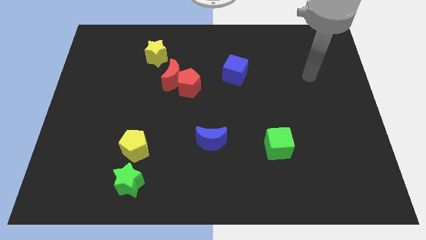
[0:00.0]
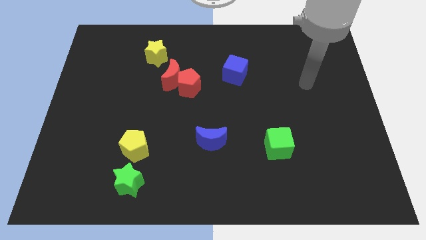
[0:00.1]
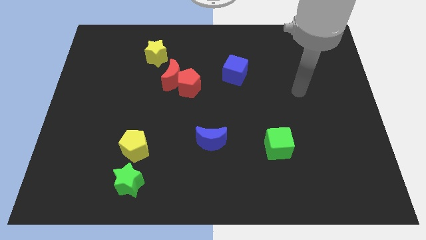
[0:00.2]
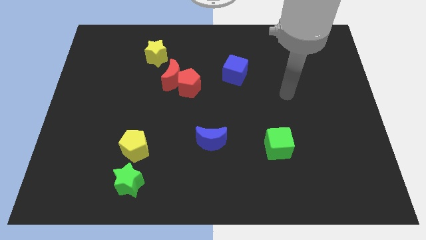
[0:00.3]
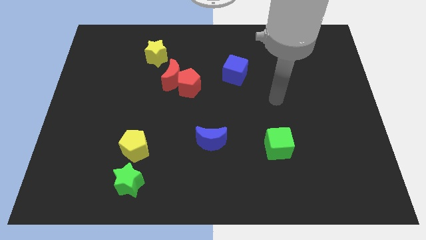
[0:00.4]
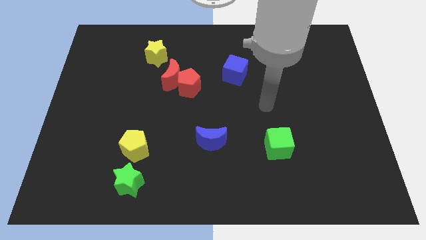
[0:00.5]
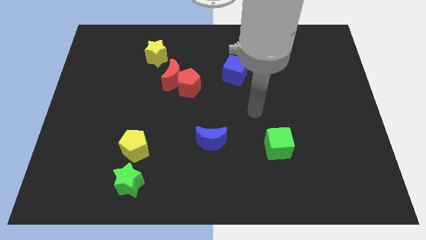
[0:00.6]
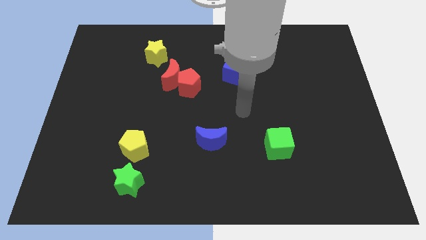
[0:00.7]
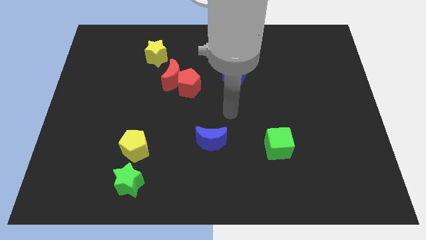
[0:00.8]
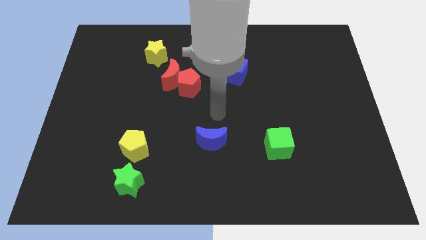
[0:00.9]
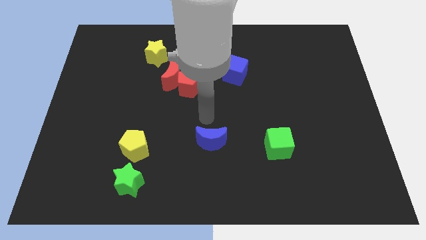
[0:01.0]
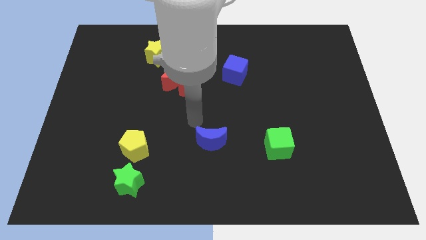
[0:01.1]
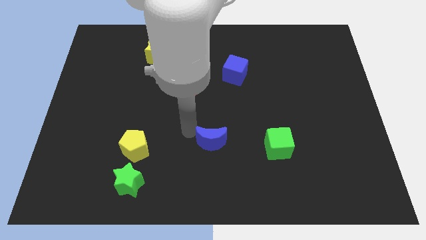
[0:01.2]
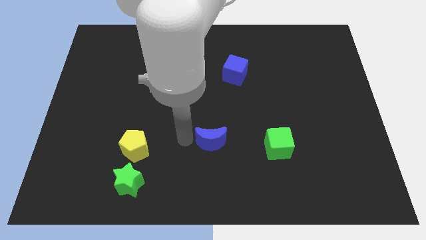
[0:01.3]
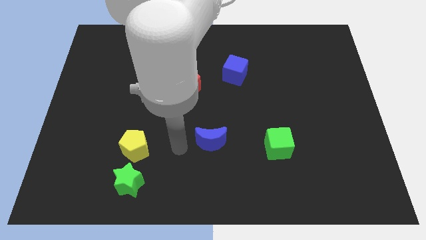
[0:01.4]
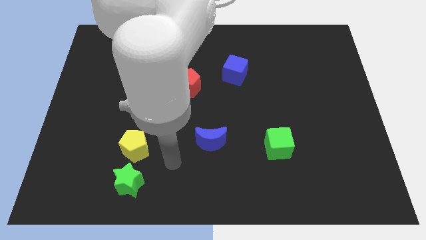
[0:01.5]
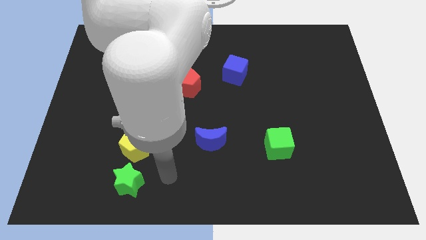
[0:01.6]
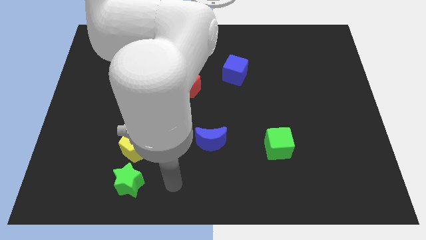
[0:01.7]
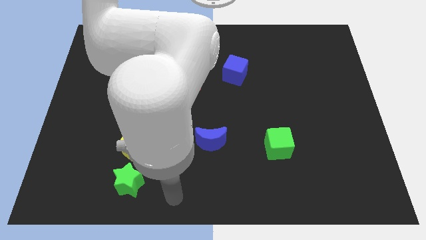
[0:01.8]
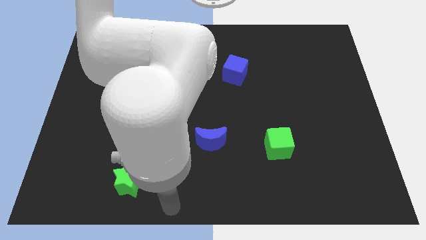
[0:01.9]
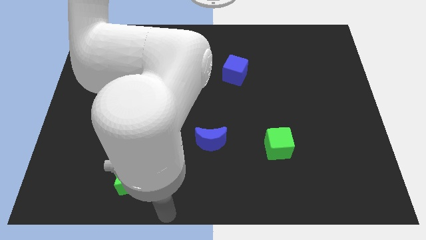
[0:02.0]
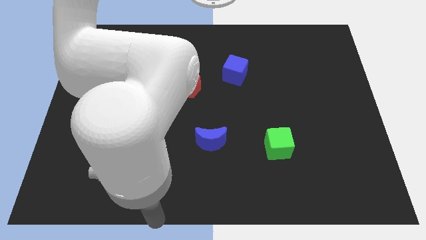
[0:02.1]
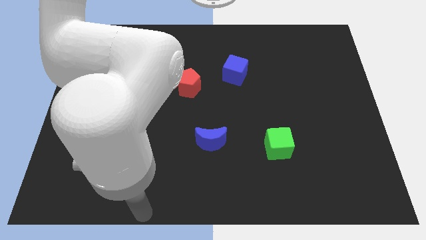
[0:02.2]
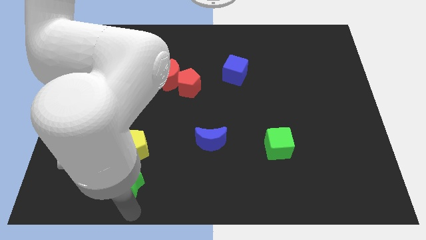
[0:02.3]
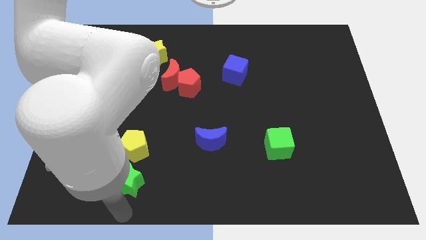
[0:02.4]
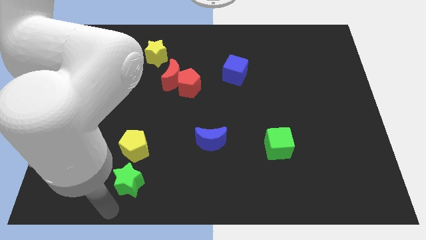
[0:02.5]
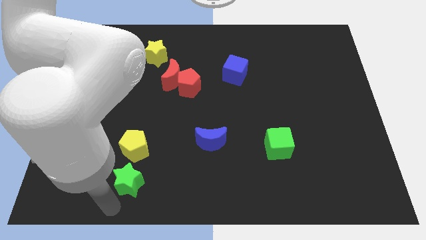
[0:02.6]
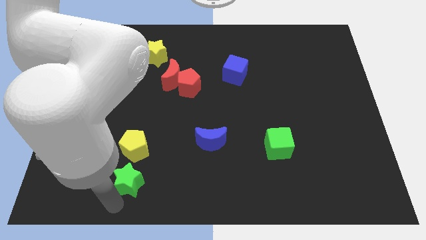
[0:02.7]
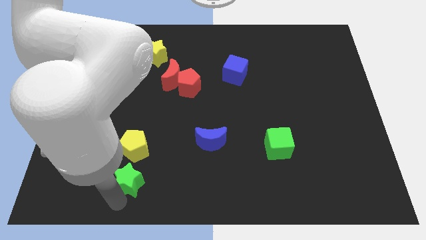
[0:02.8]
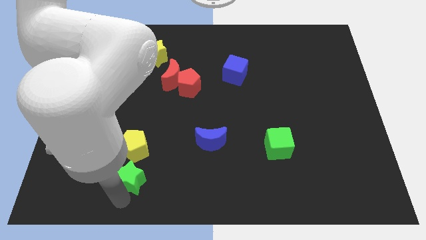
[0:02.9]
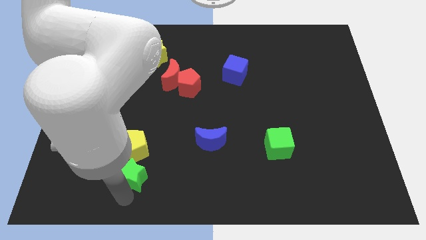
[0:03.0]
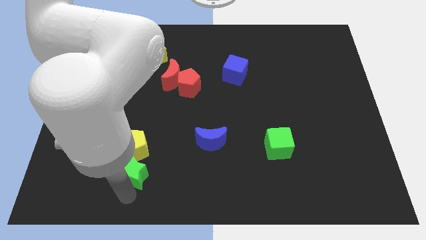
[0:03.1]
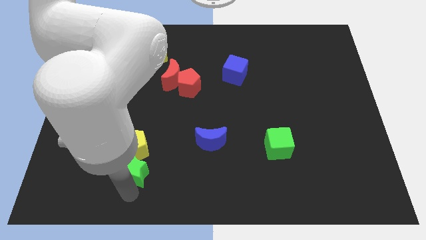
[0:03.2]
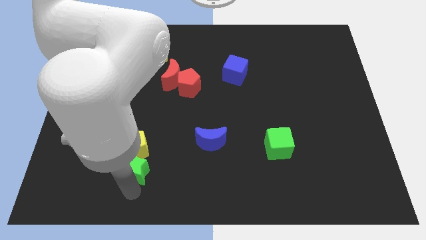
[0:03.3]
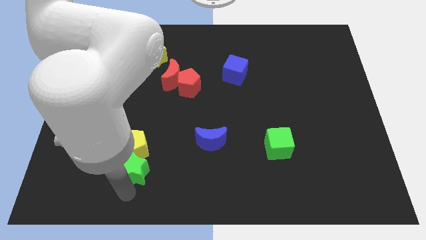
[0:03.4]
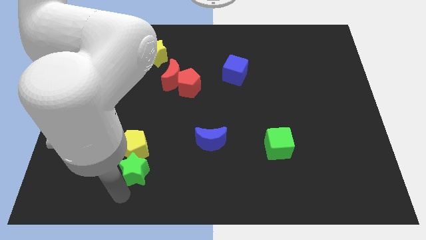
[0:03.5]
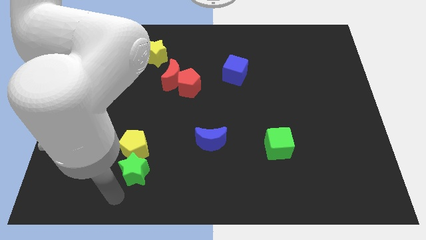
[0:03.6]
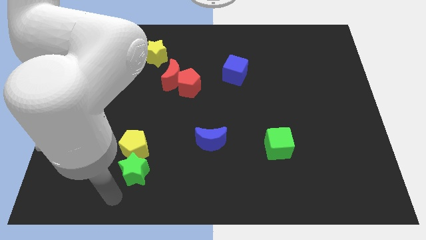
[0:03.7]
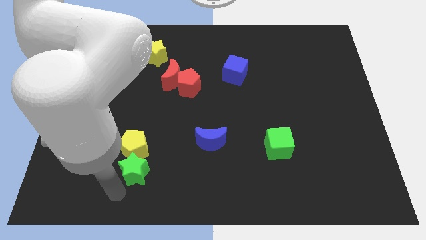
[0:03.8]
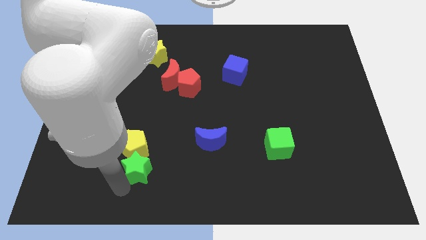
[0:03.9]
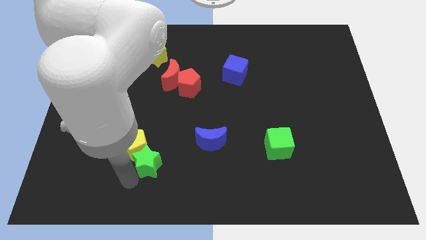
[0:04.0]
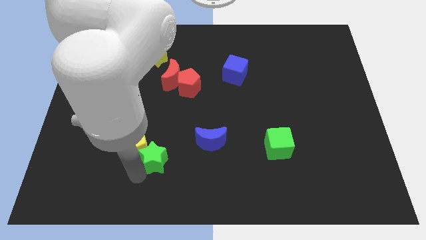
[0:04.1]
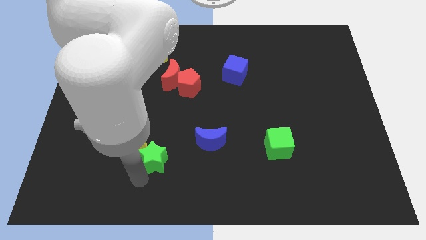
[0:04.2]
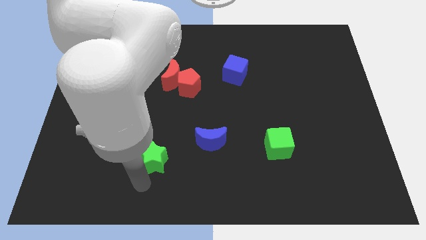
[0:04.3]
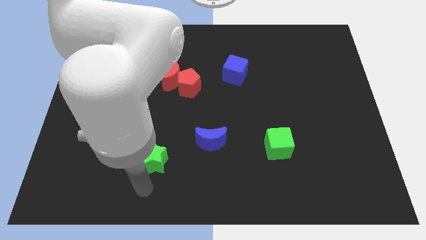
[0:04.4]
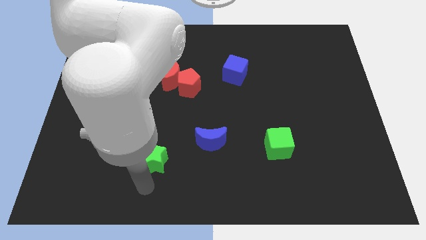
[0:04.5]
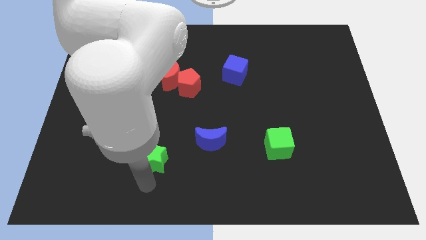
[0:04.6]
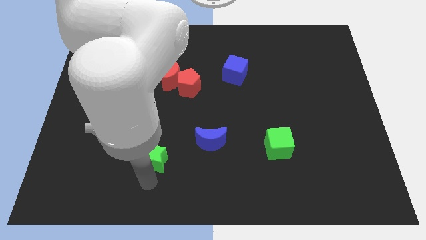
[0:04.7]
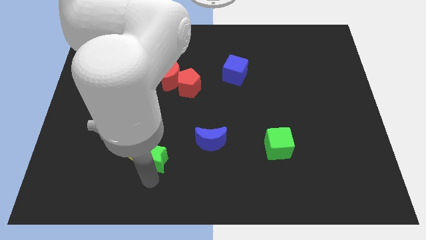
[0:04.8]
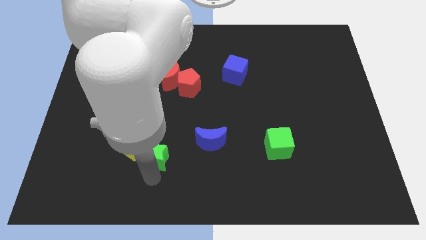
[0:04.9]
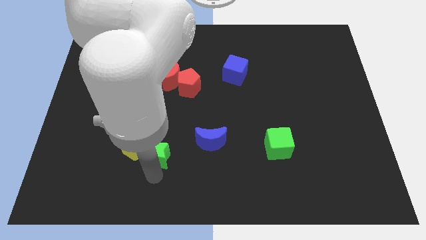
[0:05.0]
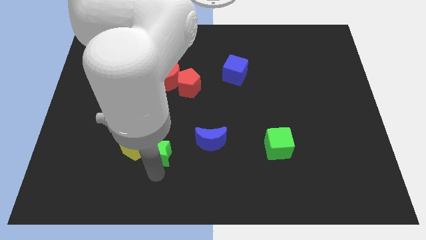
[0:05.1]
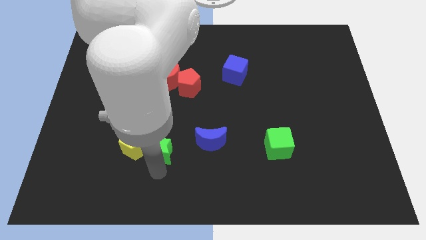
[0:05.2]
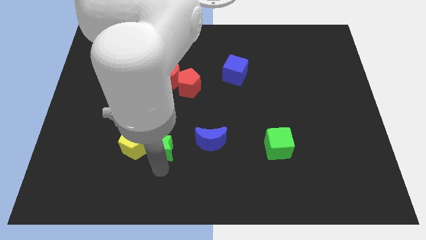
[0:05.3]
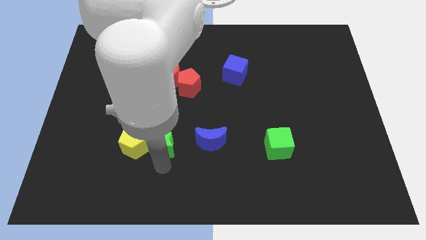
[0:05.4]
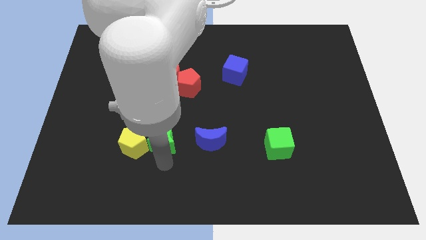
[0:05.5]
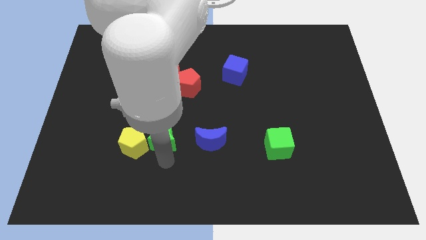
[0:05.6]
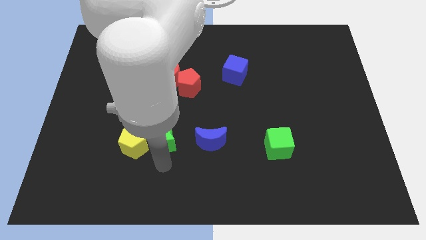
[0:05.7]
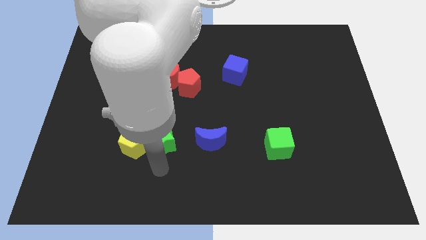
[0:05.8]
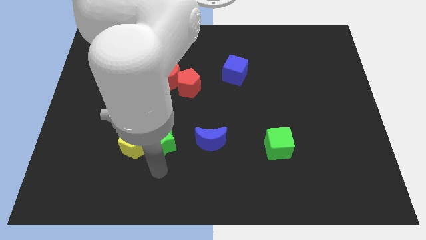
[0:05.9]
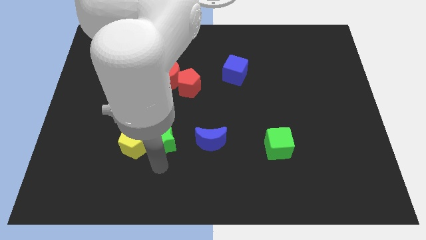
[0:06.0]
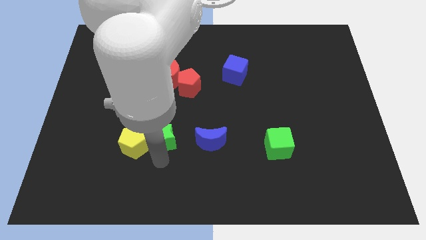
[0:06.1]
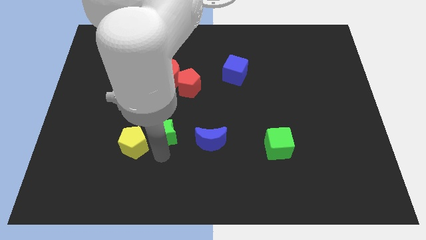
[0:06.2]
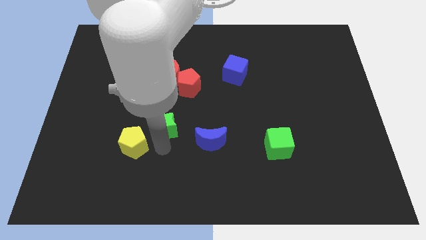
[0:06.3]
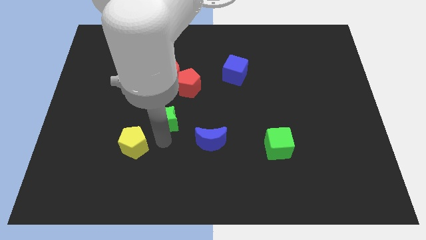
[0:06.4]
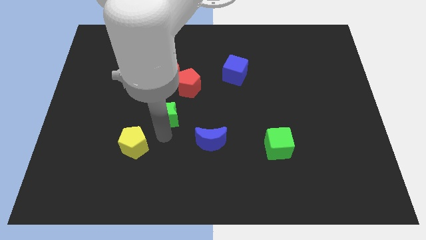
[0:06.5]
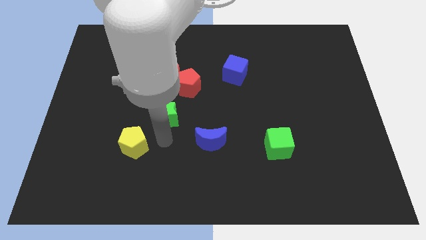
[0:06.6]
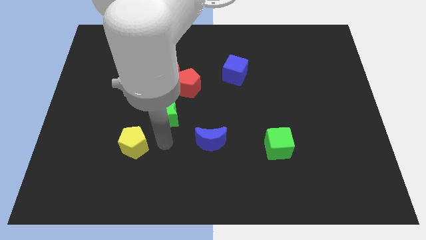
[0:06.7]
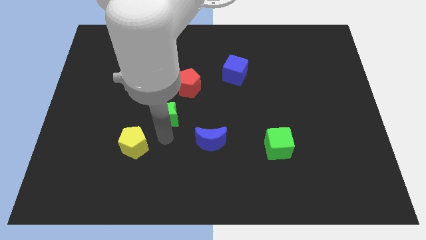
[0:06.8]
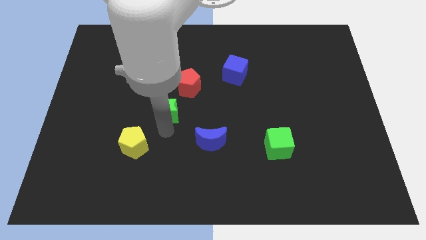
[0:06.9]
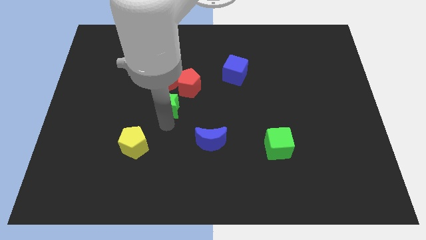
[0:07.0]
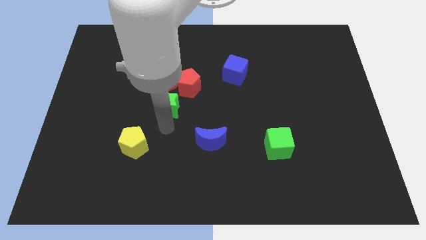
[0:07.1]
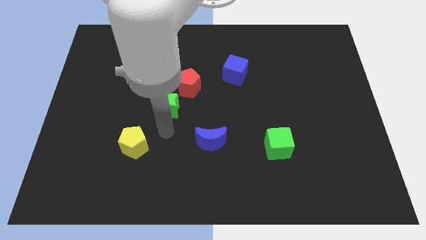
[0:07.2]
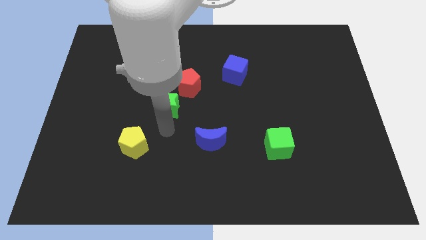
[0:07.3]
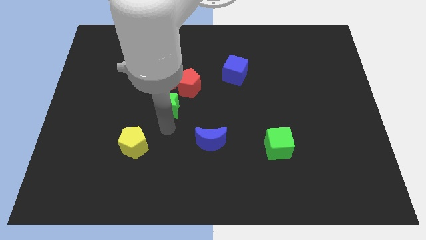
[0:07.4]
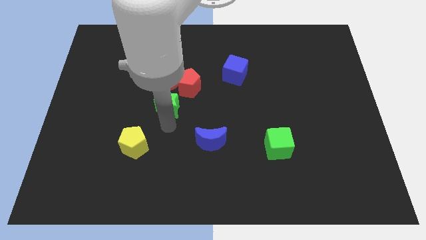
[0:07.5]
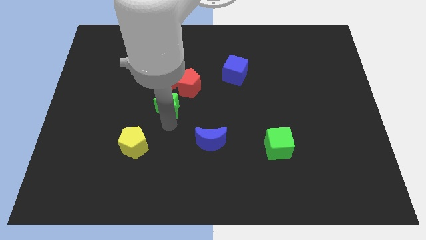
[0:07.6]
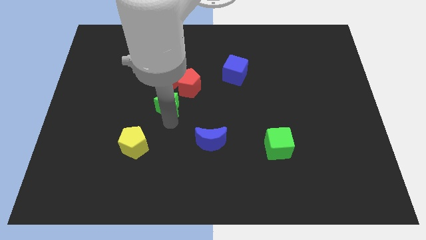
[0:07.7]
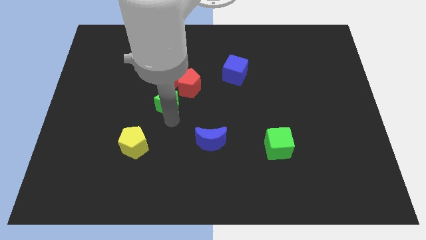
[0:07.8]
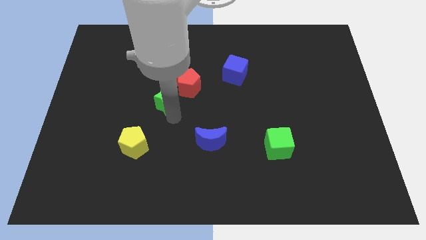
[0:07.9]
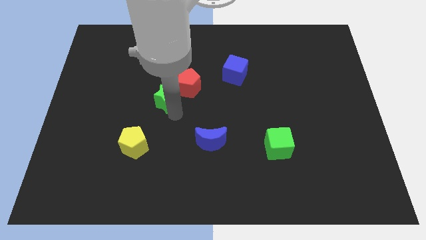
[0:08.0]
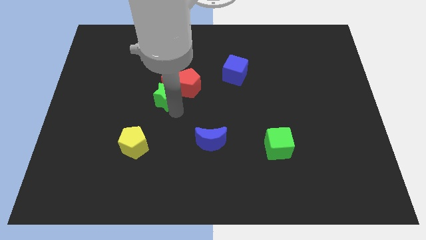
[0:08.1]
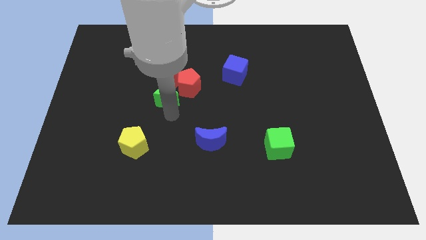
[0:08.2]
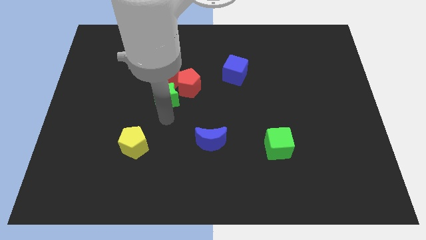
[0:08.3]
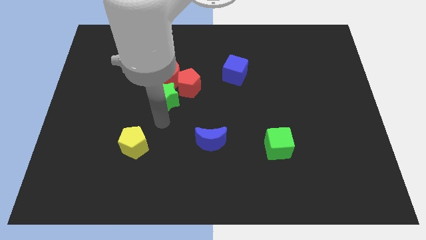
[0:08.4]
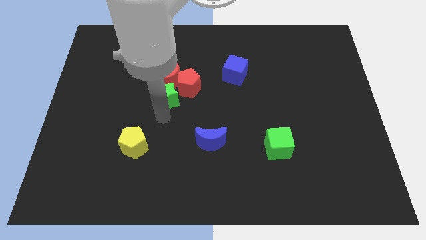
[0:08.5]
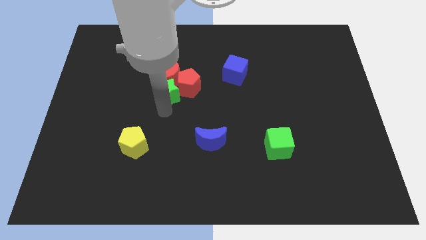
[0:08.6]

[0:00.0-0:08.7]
slide the green star next to the red moon
